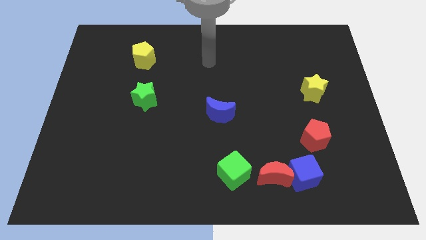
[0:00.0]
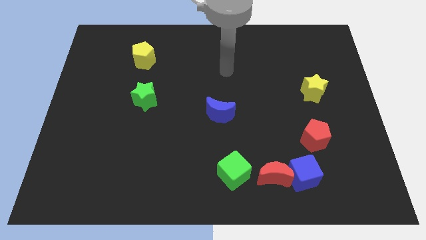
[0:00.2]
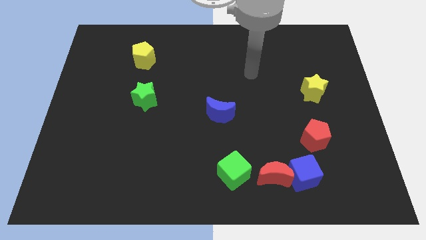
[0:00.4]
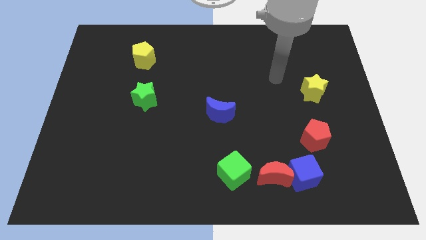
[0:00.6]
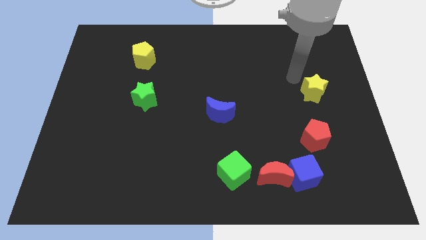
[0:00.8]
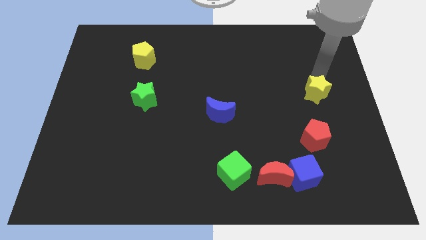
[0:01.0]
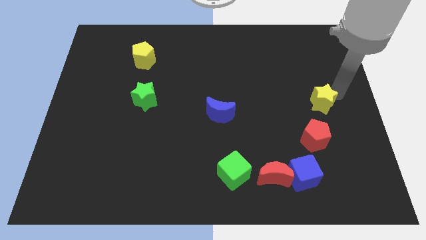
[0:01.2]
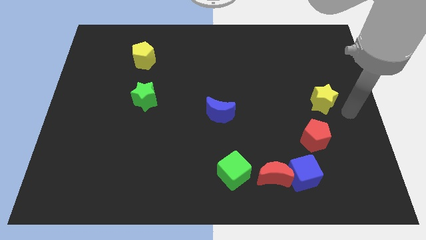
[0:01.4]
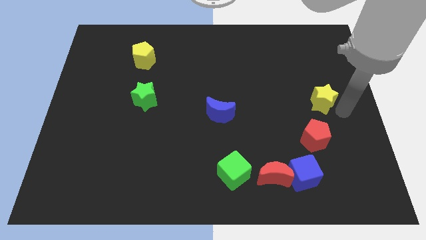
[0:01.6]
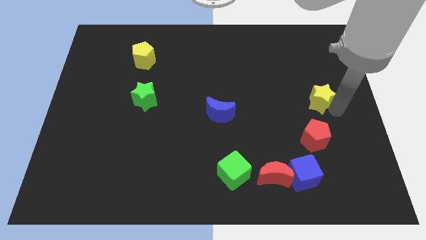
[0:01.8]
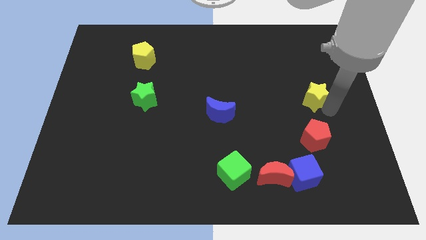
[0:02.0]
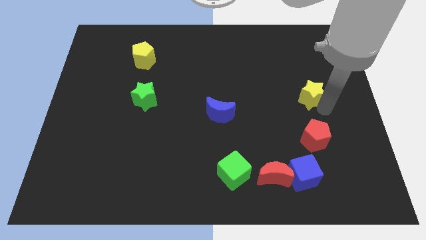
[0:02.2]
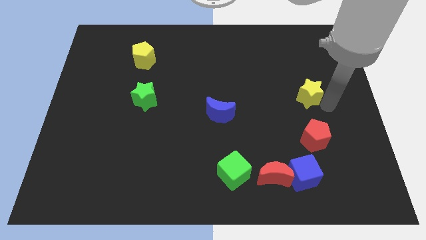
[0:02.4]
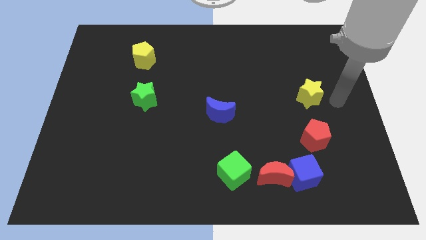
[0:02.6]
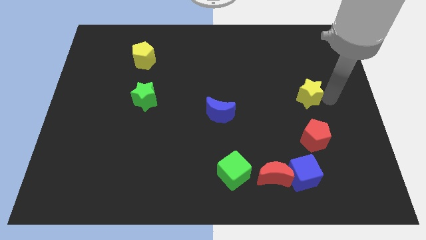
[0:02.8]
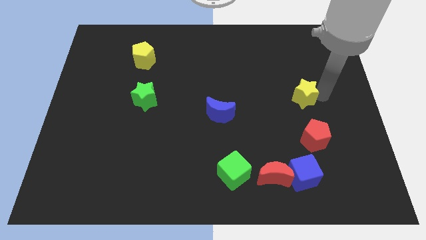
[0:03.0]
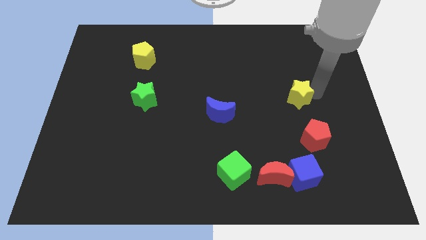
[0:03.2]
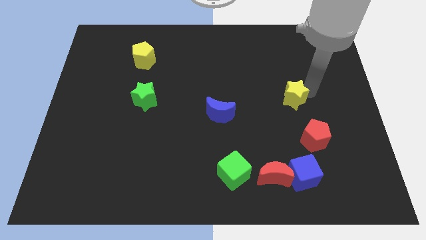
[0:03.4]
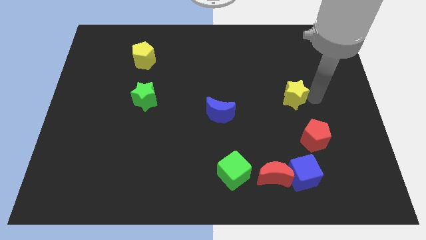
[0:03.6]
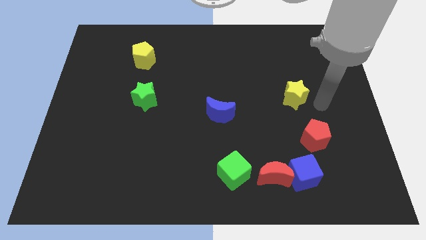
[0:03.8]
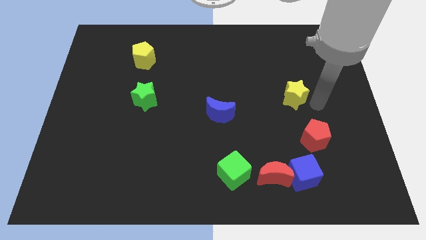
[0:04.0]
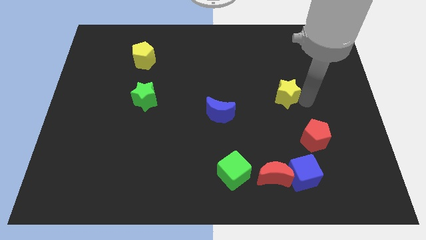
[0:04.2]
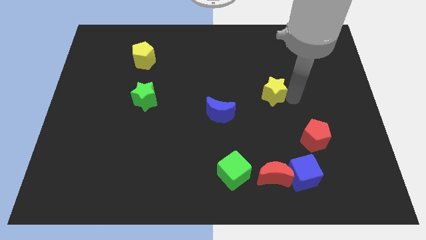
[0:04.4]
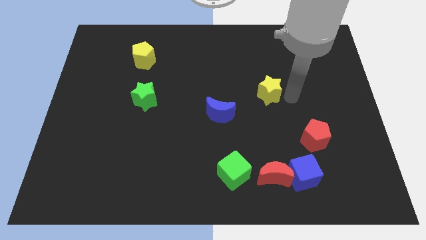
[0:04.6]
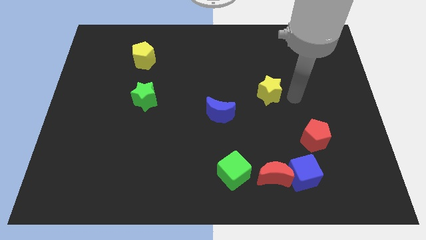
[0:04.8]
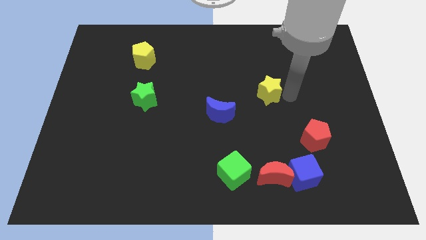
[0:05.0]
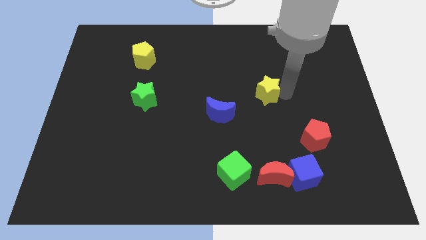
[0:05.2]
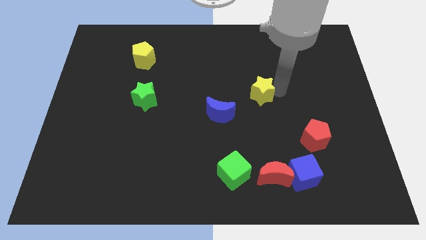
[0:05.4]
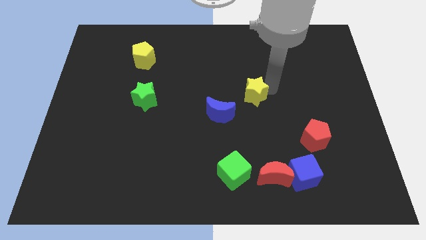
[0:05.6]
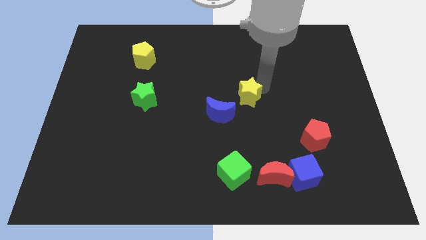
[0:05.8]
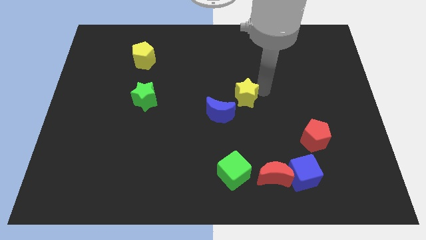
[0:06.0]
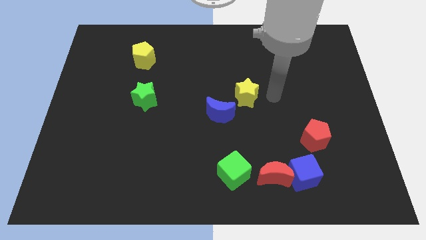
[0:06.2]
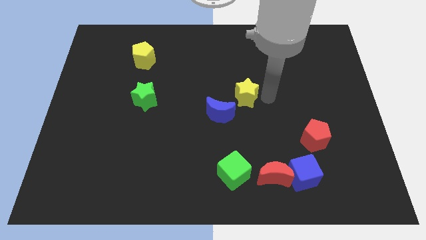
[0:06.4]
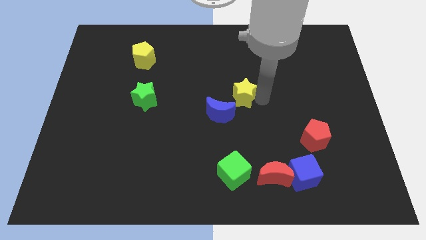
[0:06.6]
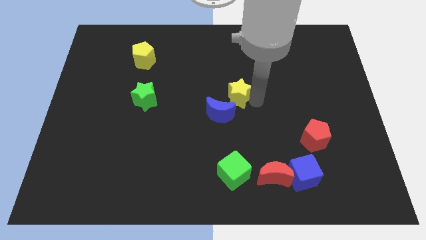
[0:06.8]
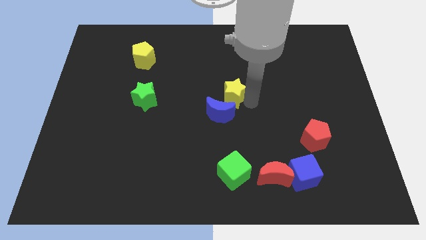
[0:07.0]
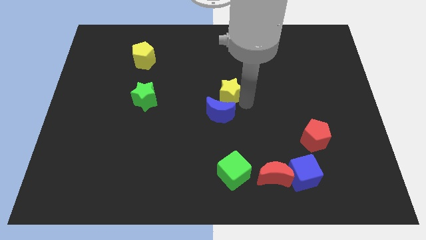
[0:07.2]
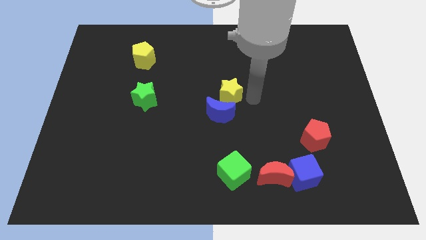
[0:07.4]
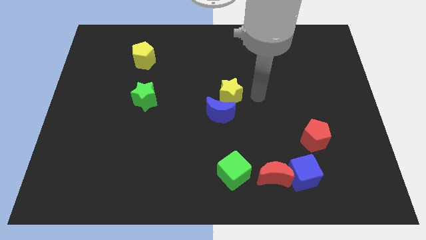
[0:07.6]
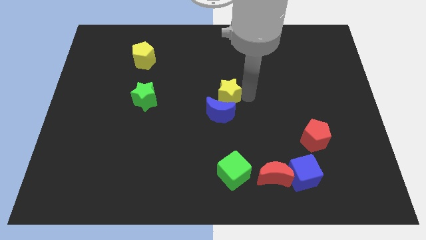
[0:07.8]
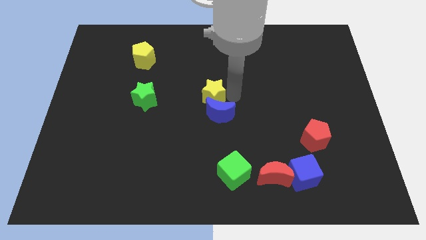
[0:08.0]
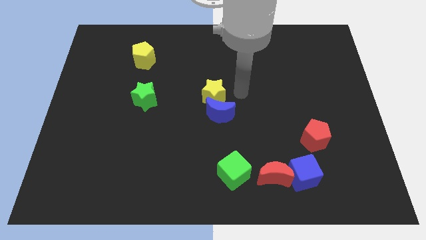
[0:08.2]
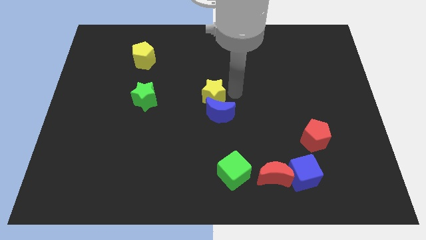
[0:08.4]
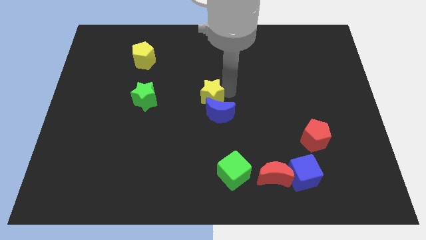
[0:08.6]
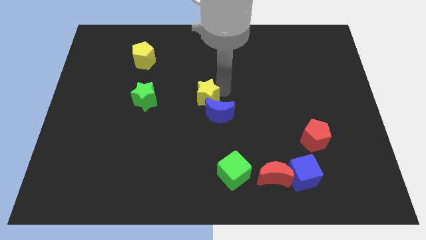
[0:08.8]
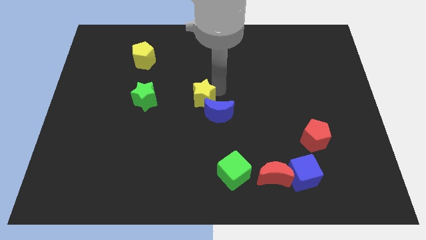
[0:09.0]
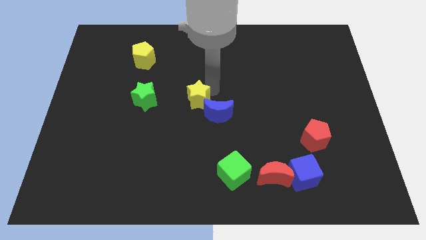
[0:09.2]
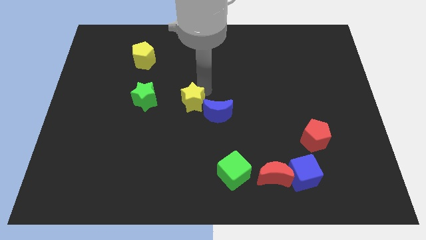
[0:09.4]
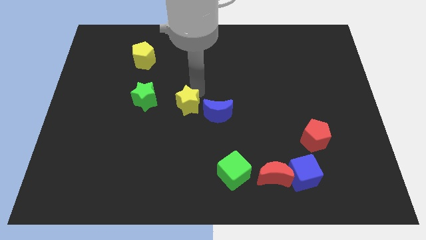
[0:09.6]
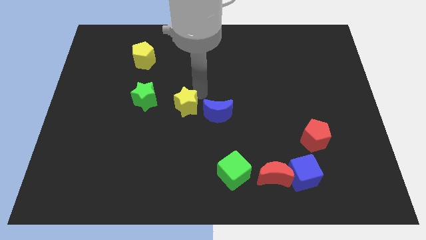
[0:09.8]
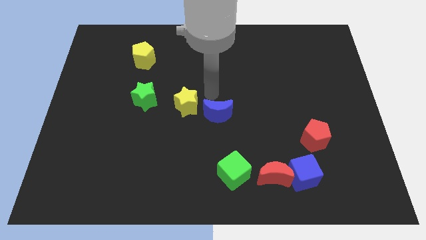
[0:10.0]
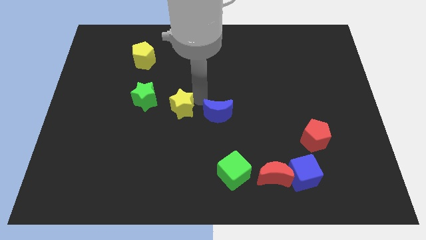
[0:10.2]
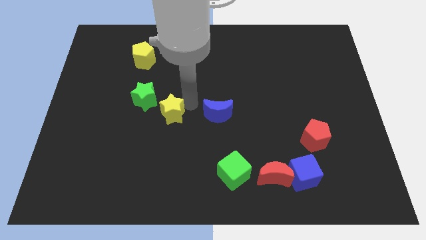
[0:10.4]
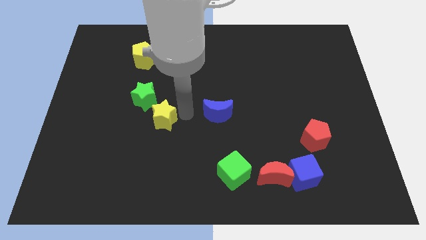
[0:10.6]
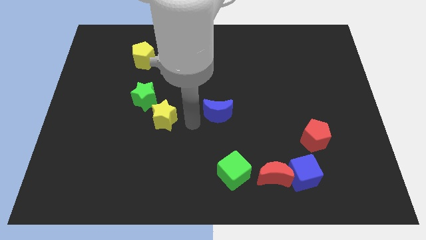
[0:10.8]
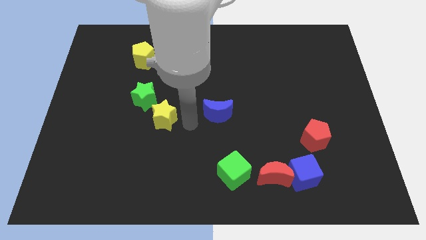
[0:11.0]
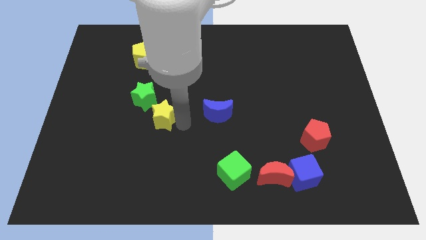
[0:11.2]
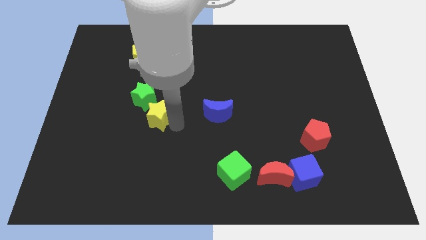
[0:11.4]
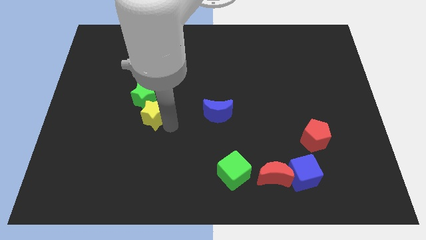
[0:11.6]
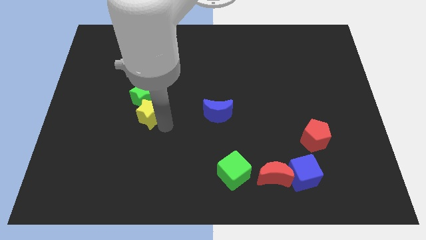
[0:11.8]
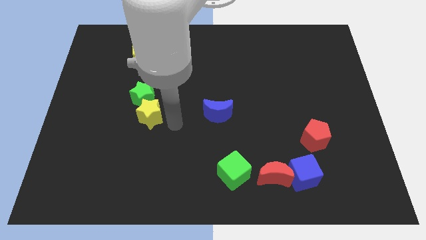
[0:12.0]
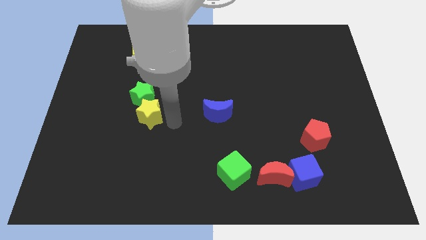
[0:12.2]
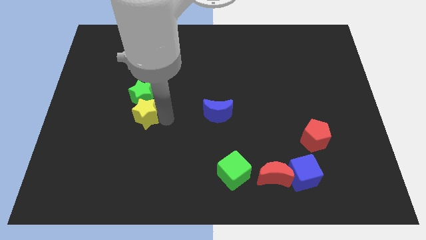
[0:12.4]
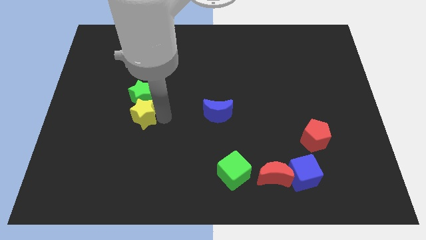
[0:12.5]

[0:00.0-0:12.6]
push the yellow star to the bottom left side of the green star

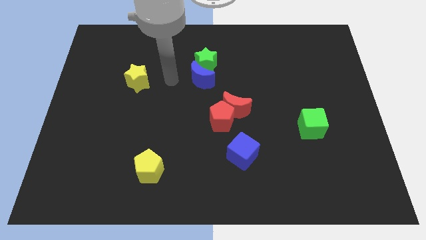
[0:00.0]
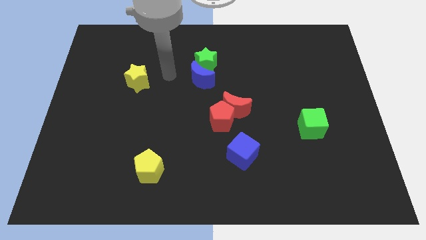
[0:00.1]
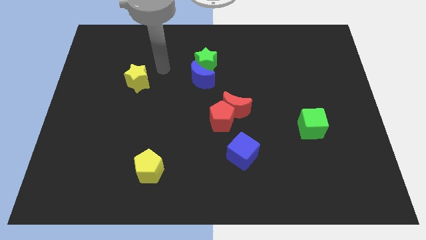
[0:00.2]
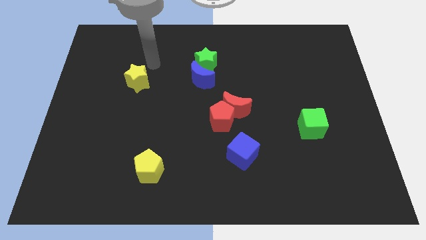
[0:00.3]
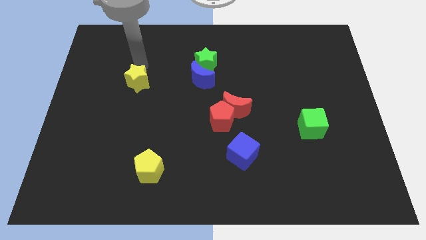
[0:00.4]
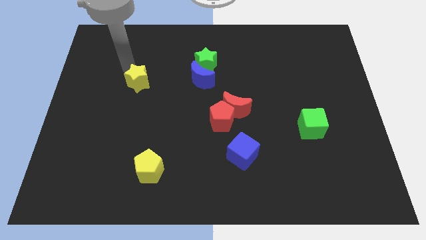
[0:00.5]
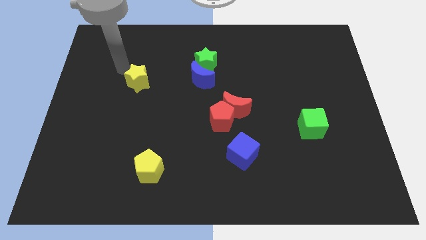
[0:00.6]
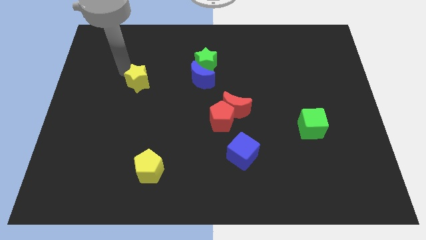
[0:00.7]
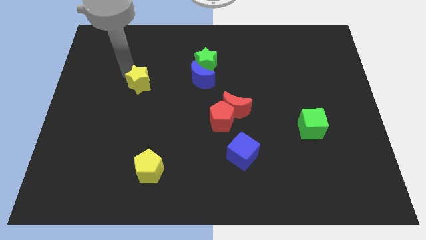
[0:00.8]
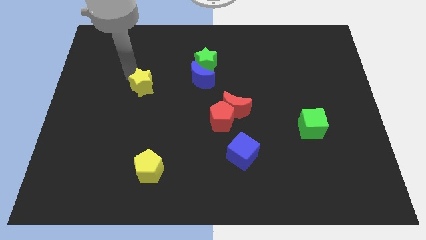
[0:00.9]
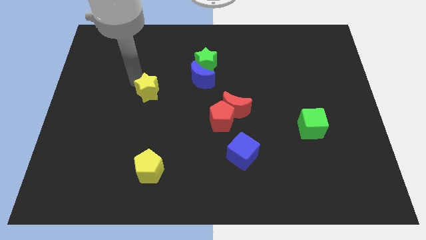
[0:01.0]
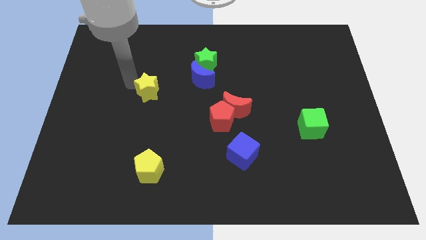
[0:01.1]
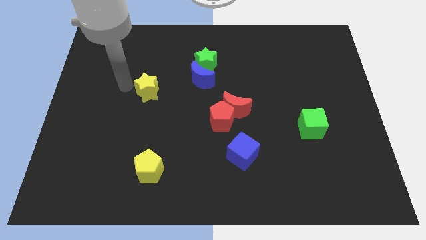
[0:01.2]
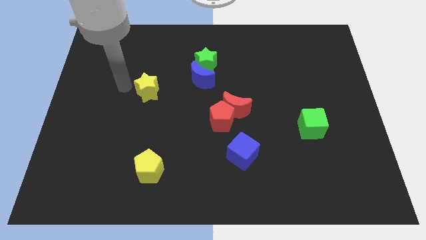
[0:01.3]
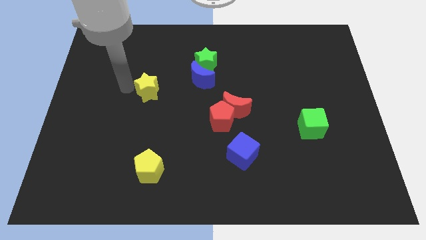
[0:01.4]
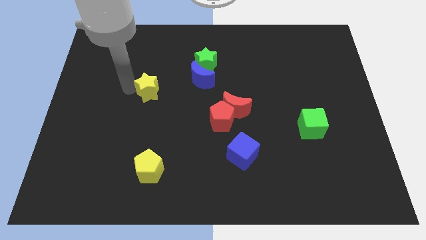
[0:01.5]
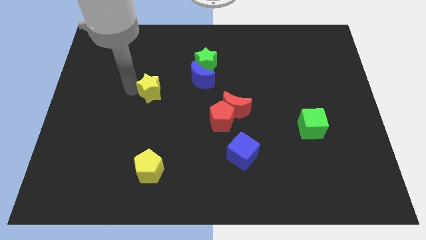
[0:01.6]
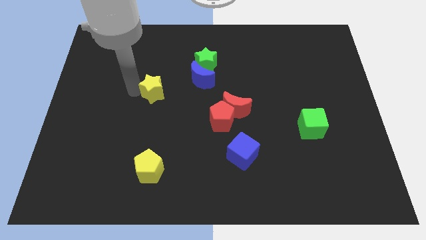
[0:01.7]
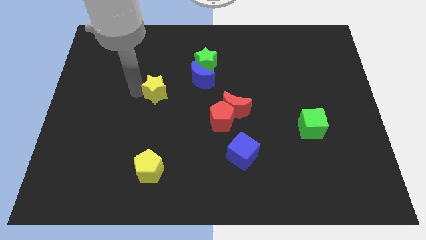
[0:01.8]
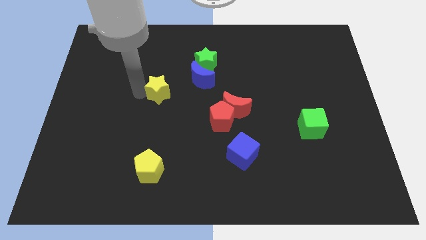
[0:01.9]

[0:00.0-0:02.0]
move the yellow star to the bottom left of the blue moon
